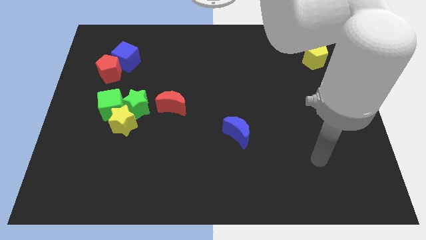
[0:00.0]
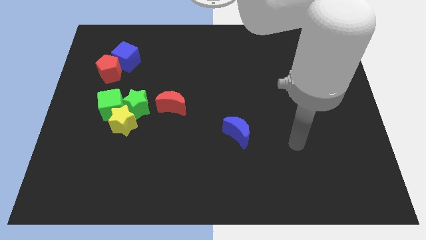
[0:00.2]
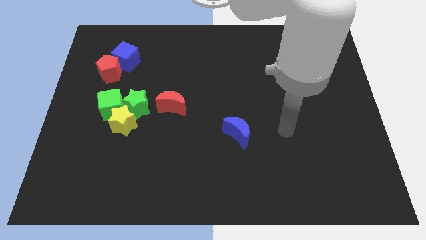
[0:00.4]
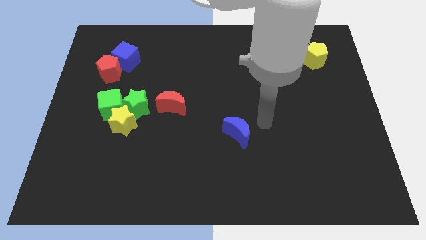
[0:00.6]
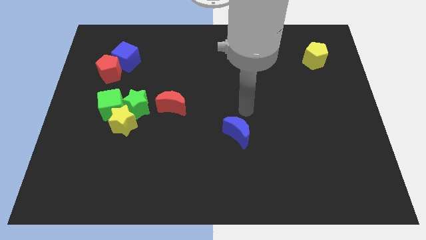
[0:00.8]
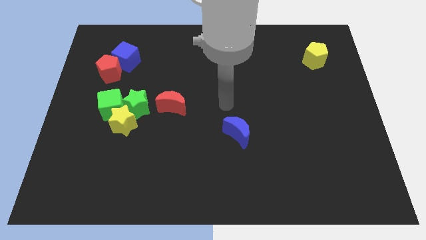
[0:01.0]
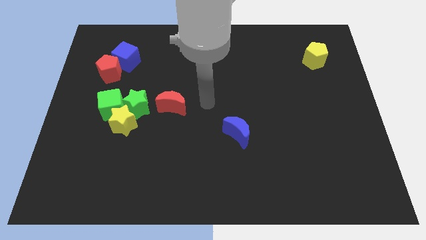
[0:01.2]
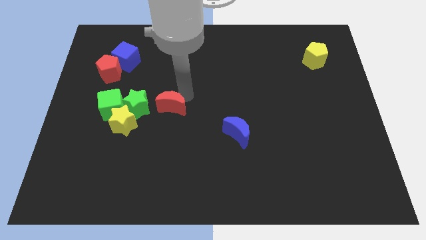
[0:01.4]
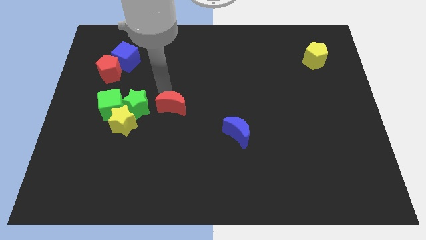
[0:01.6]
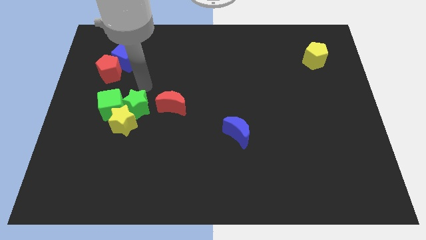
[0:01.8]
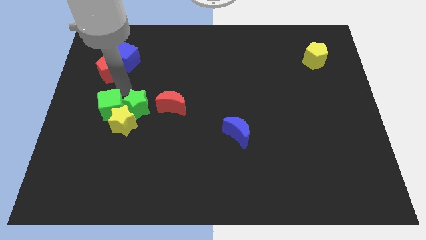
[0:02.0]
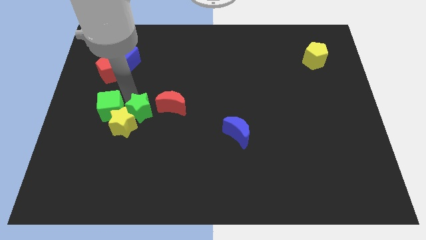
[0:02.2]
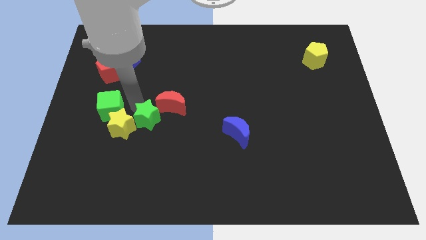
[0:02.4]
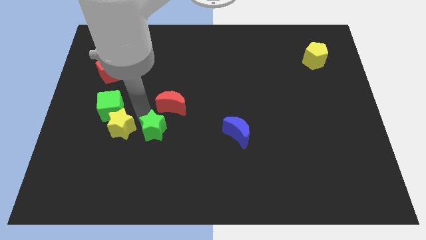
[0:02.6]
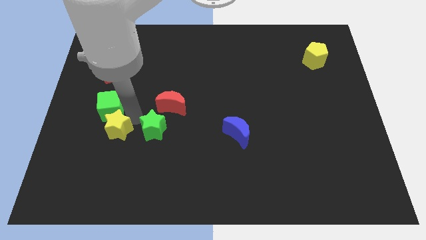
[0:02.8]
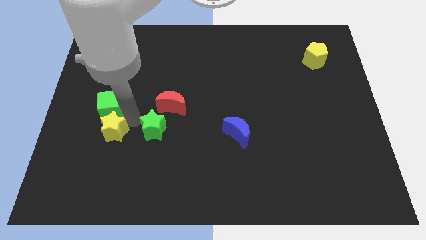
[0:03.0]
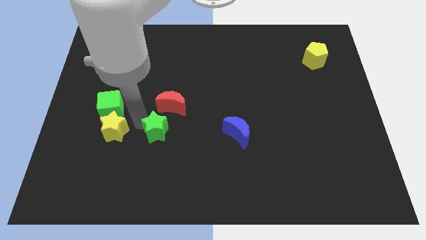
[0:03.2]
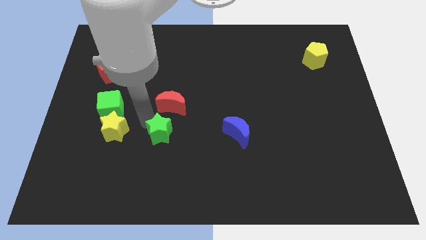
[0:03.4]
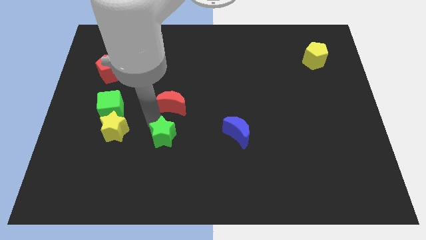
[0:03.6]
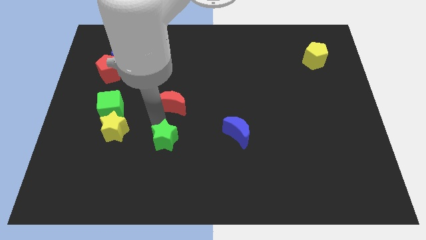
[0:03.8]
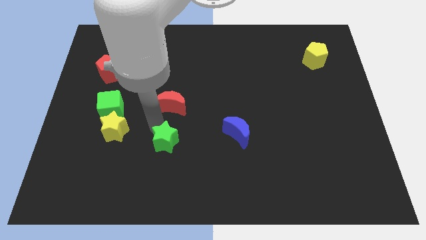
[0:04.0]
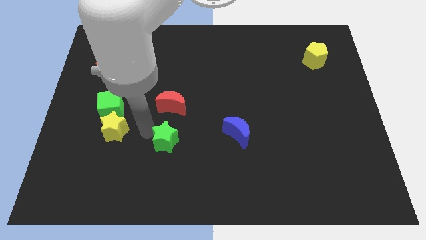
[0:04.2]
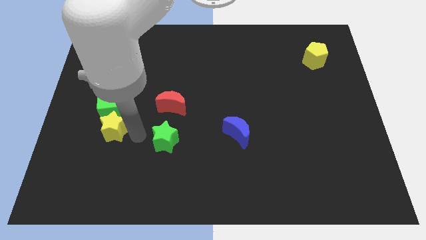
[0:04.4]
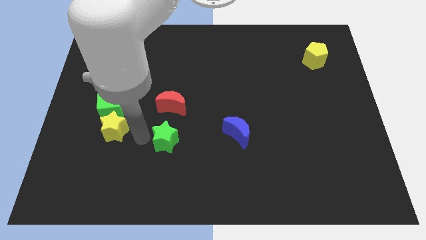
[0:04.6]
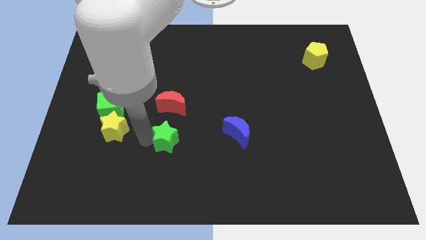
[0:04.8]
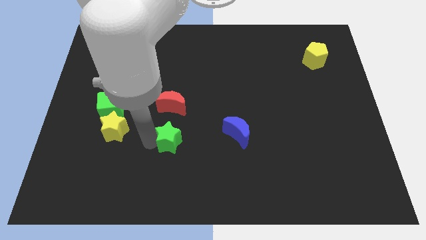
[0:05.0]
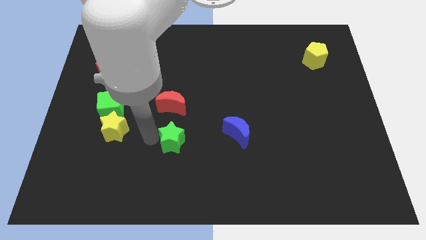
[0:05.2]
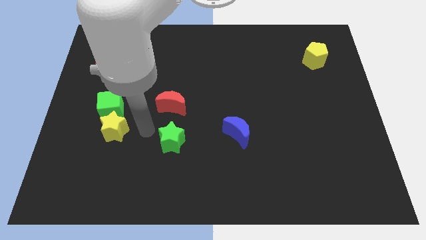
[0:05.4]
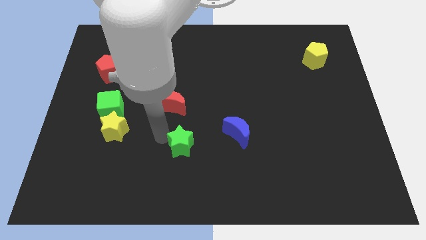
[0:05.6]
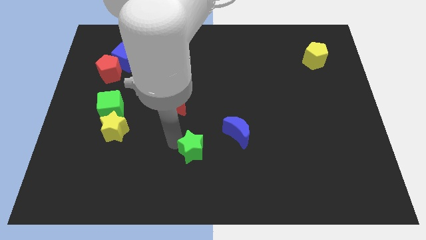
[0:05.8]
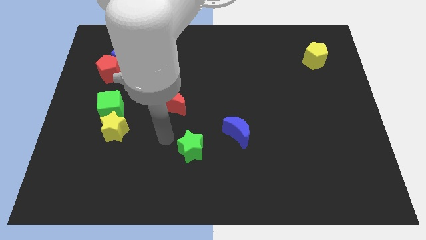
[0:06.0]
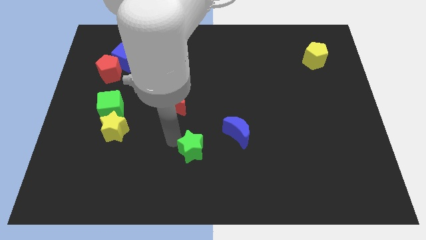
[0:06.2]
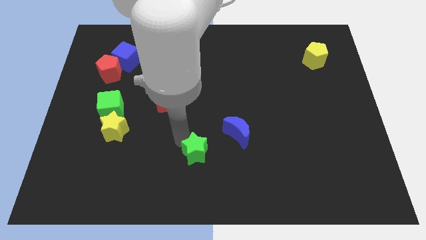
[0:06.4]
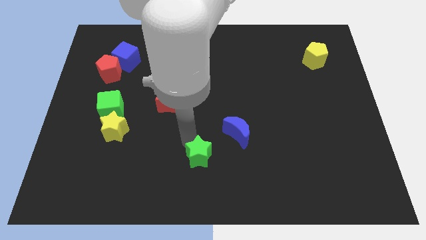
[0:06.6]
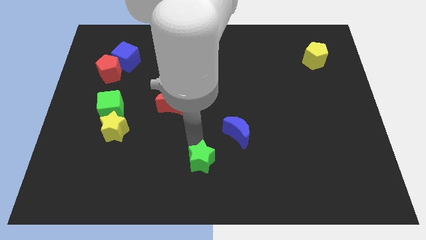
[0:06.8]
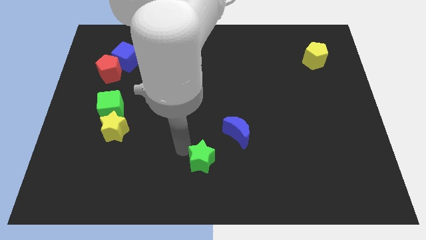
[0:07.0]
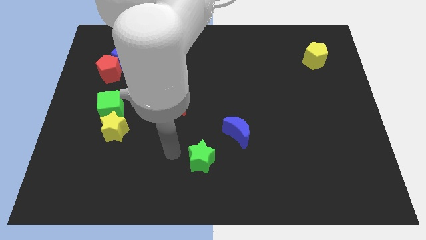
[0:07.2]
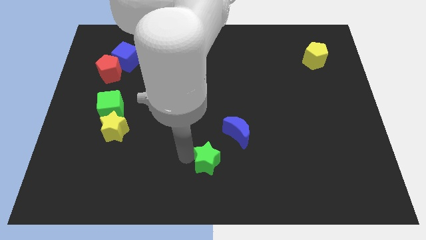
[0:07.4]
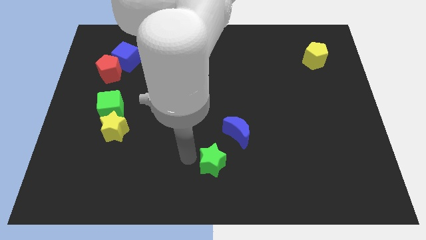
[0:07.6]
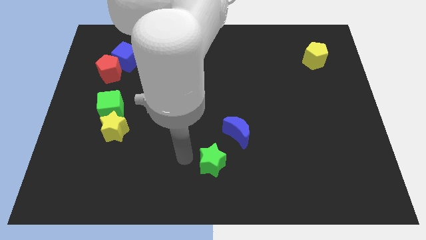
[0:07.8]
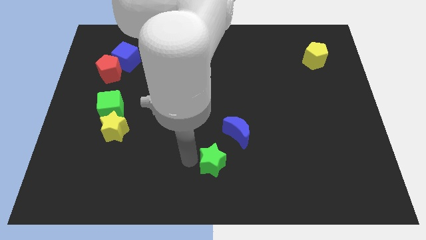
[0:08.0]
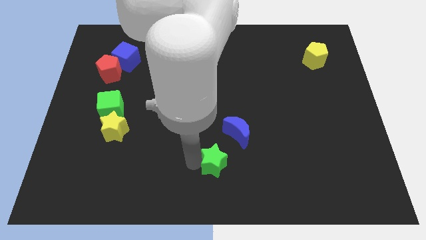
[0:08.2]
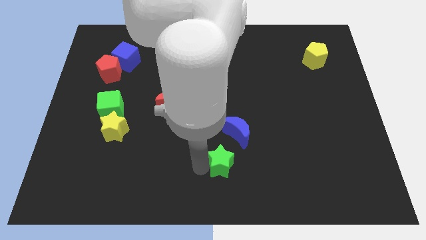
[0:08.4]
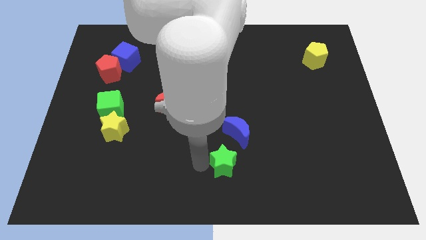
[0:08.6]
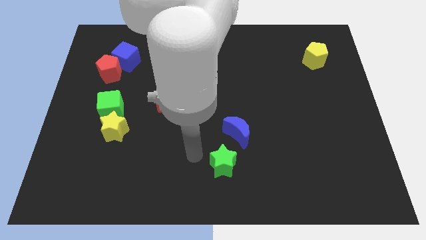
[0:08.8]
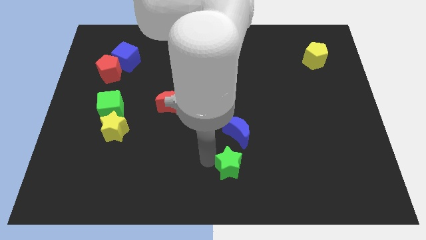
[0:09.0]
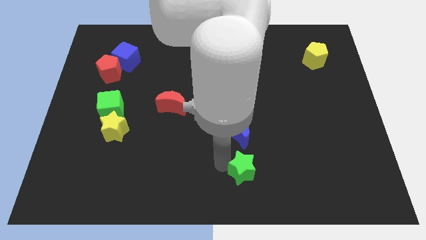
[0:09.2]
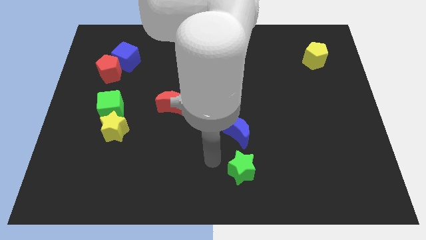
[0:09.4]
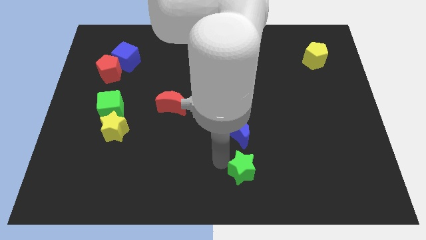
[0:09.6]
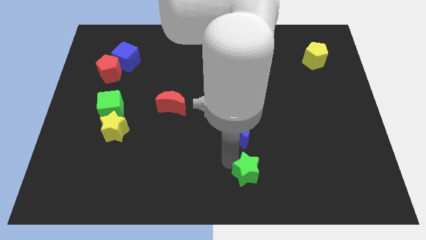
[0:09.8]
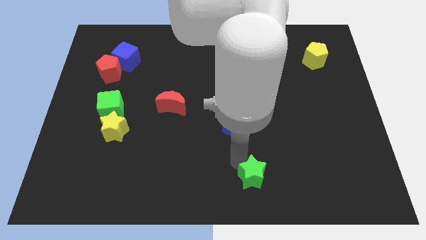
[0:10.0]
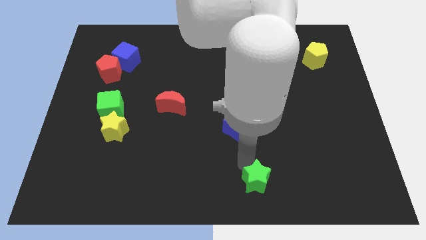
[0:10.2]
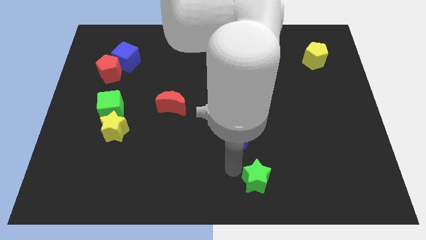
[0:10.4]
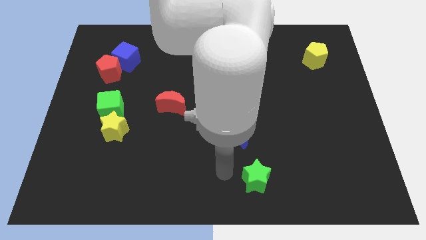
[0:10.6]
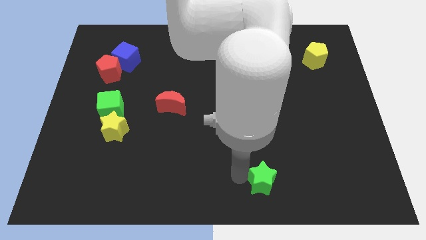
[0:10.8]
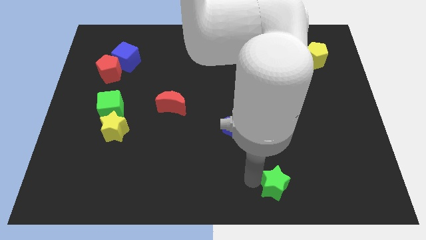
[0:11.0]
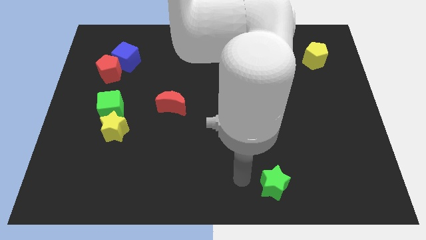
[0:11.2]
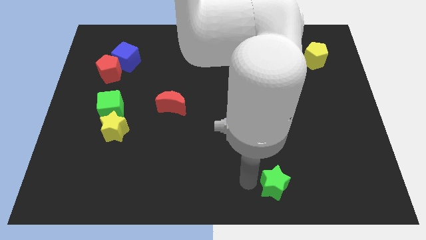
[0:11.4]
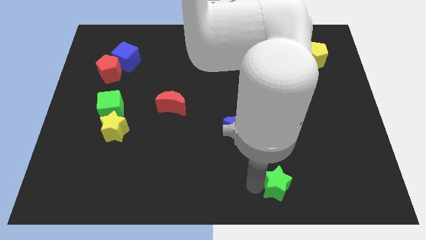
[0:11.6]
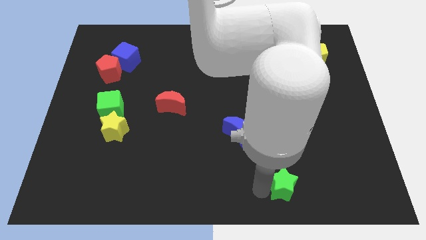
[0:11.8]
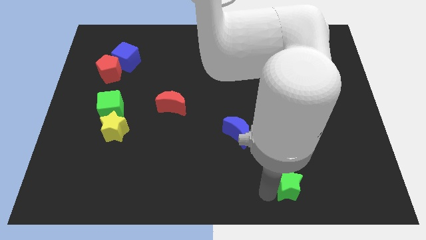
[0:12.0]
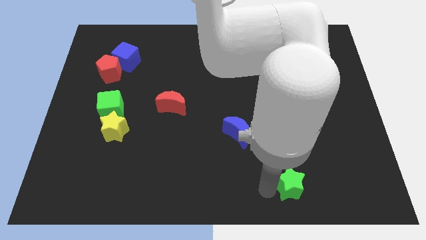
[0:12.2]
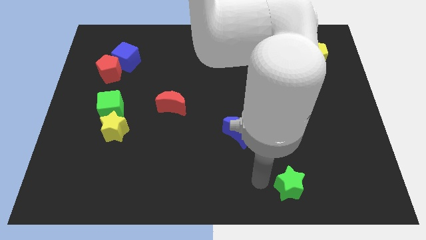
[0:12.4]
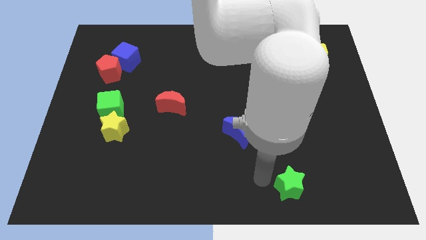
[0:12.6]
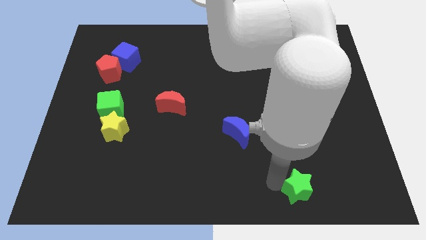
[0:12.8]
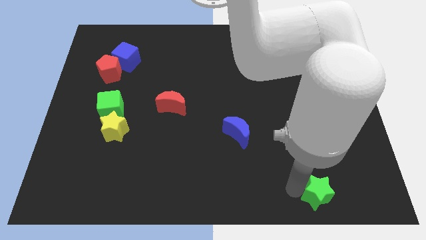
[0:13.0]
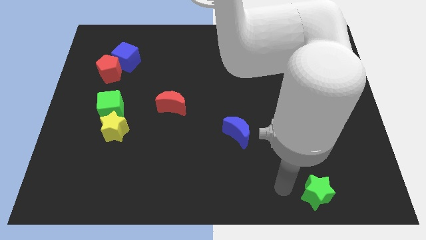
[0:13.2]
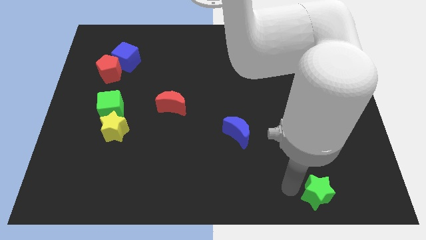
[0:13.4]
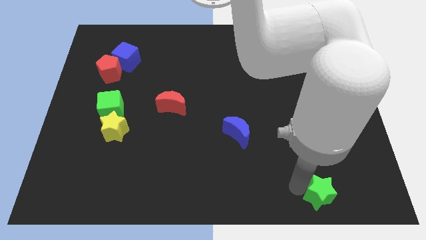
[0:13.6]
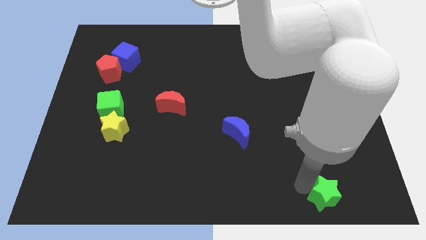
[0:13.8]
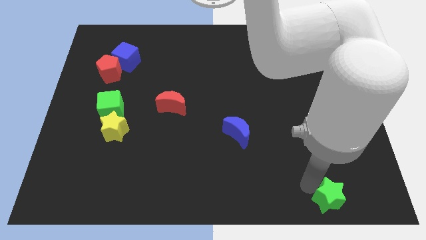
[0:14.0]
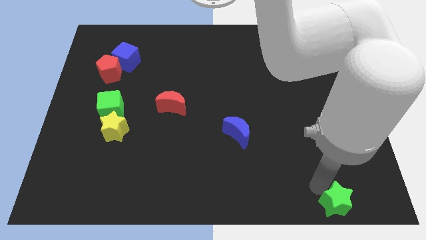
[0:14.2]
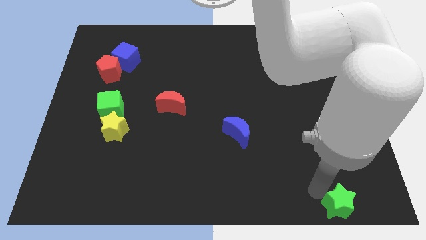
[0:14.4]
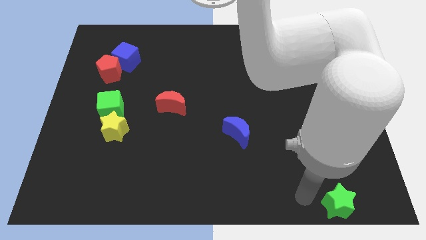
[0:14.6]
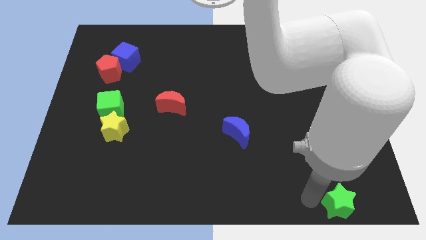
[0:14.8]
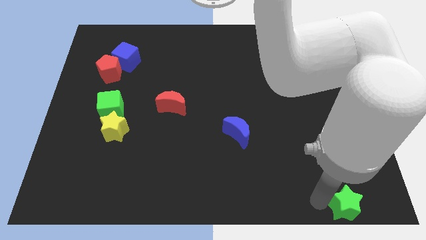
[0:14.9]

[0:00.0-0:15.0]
put the green star to the lower right corner
